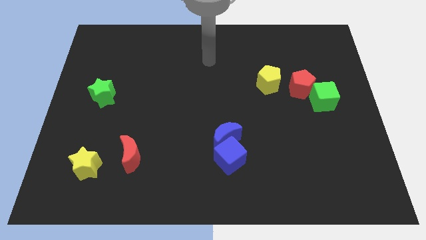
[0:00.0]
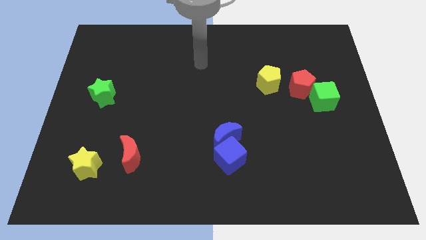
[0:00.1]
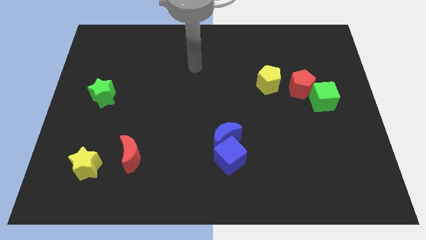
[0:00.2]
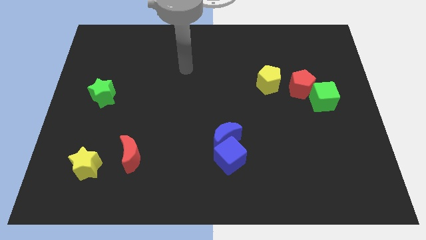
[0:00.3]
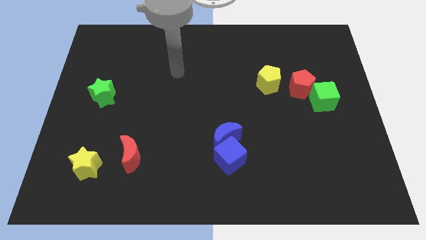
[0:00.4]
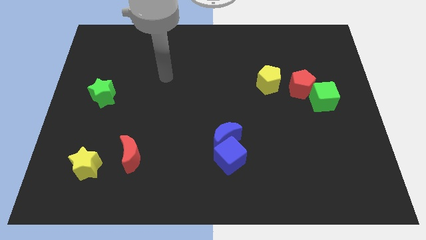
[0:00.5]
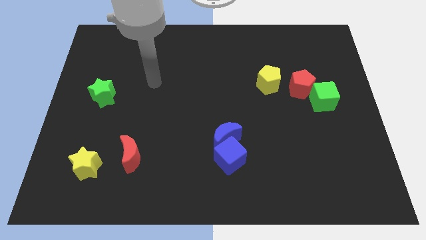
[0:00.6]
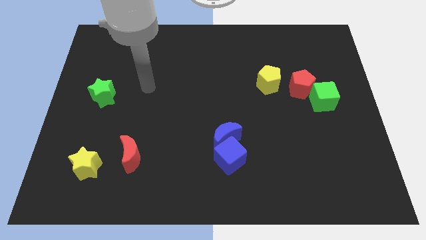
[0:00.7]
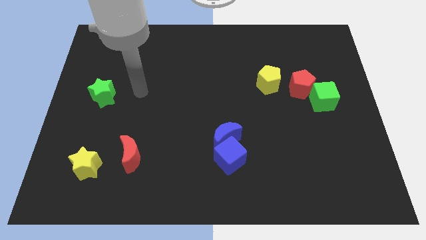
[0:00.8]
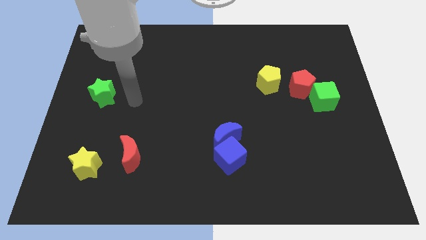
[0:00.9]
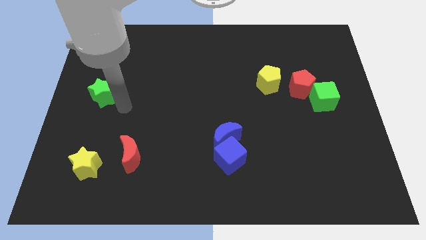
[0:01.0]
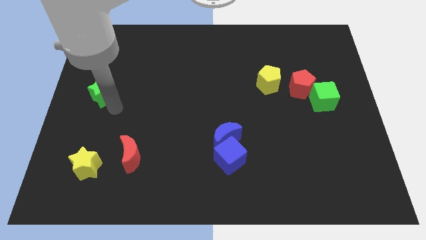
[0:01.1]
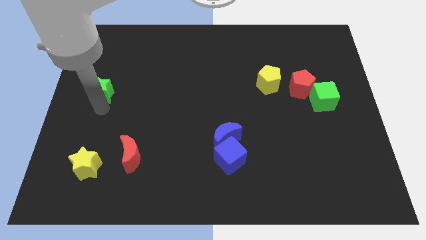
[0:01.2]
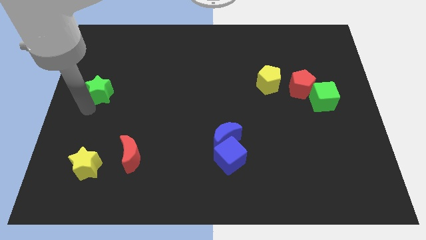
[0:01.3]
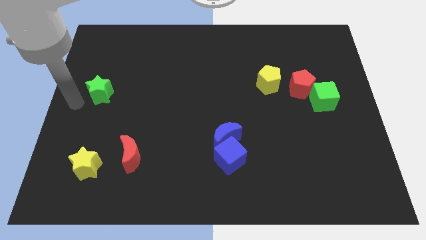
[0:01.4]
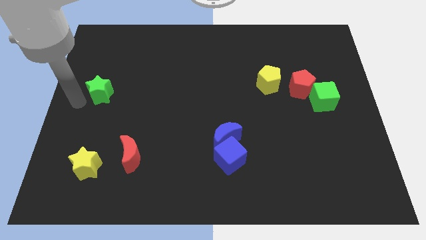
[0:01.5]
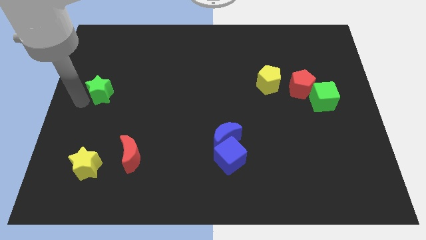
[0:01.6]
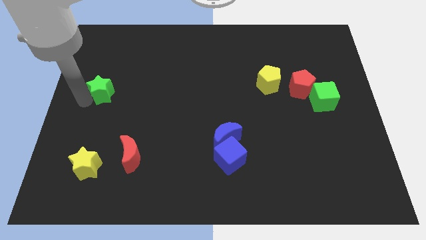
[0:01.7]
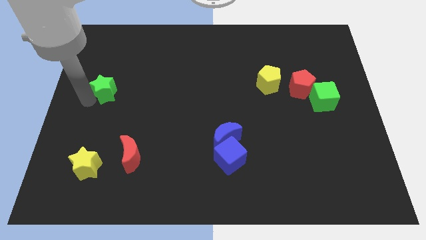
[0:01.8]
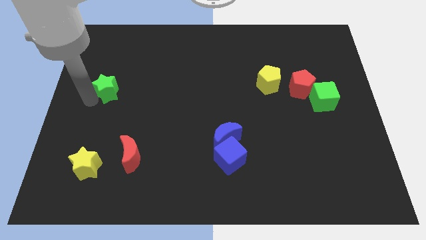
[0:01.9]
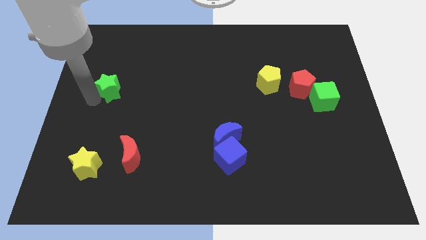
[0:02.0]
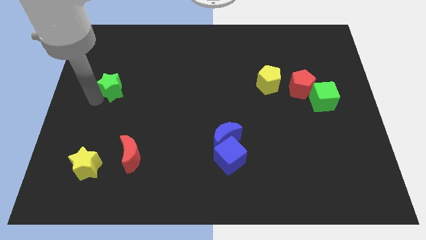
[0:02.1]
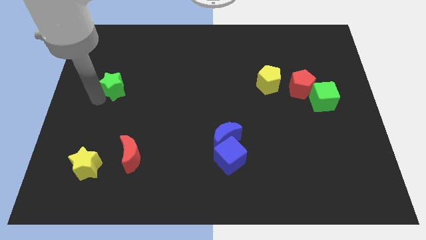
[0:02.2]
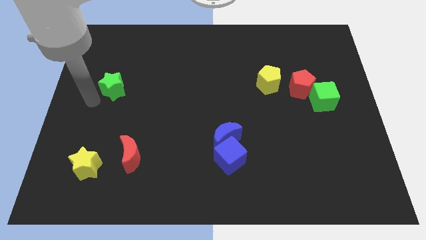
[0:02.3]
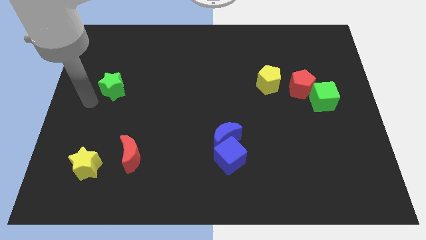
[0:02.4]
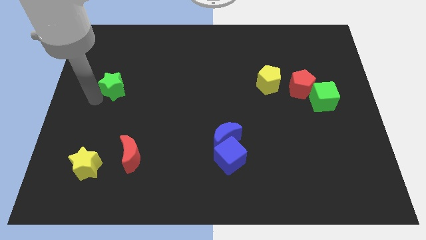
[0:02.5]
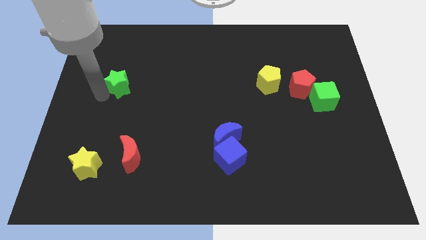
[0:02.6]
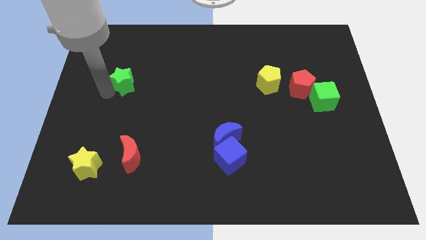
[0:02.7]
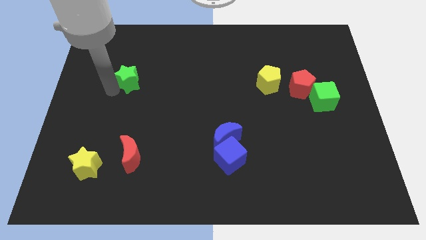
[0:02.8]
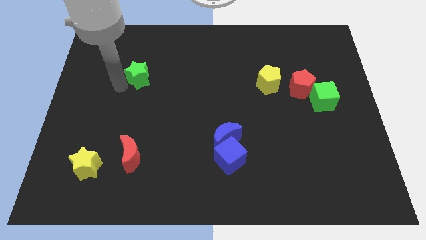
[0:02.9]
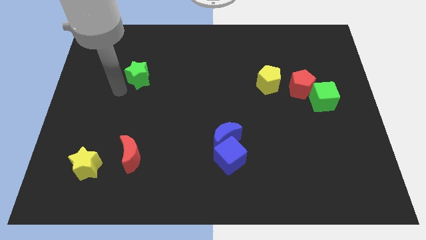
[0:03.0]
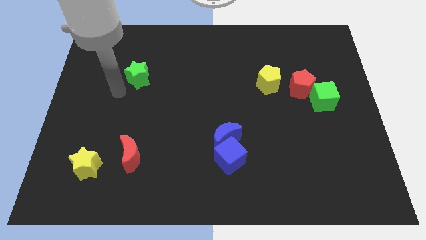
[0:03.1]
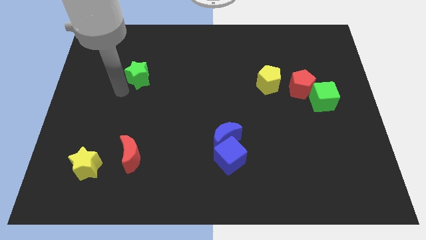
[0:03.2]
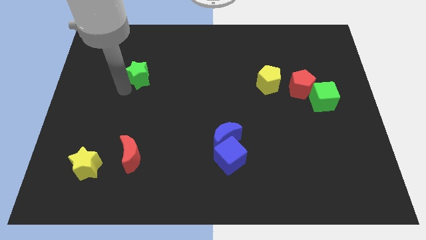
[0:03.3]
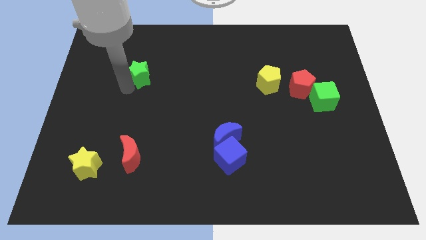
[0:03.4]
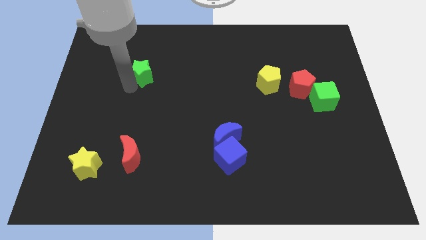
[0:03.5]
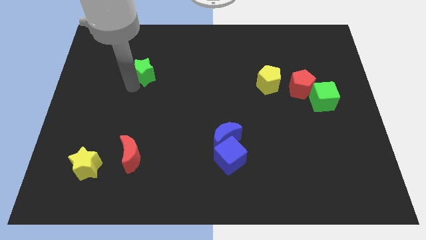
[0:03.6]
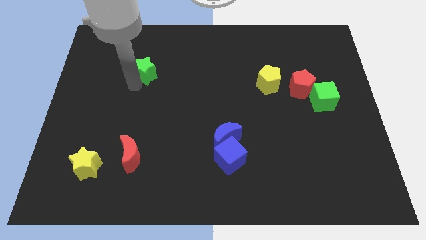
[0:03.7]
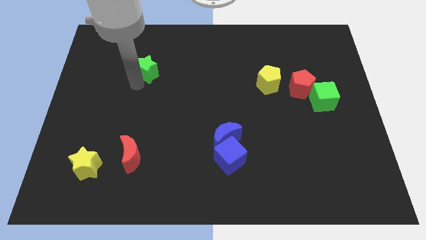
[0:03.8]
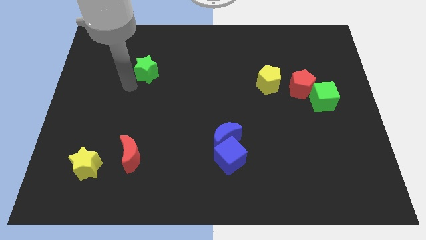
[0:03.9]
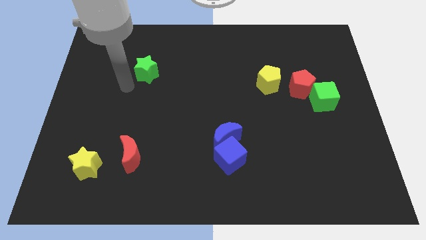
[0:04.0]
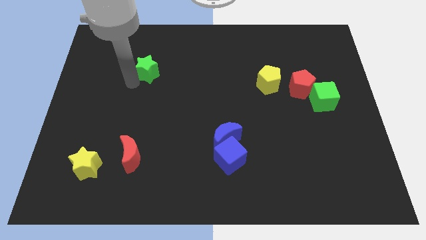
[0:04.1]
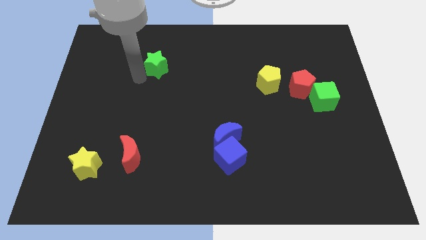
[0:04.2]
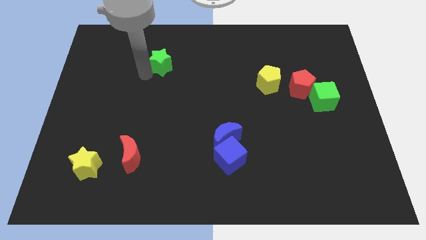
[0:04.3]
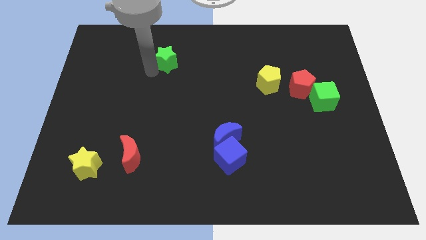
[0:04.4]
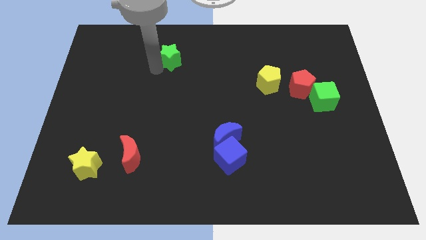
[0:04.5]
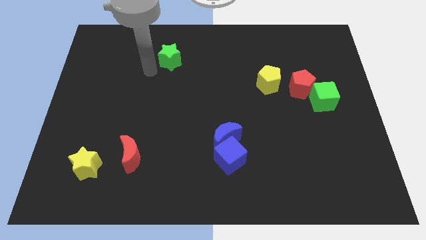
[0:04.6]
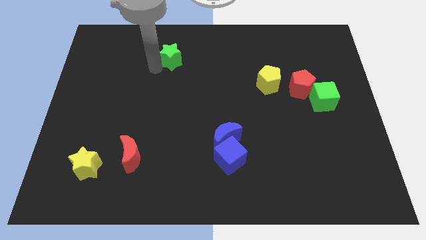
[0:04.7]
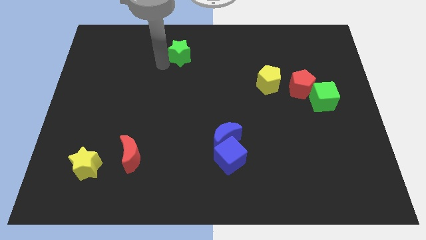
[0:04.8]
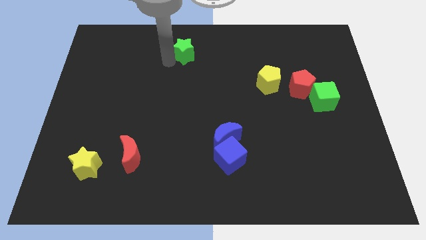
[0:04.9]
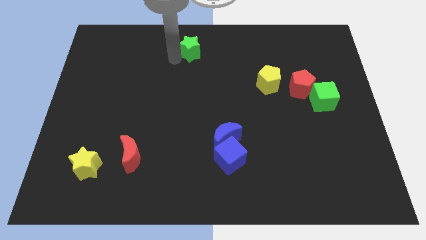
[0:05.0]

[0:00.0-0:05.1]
push the green star to the top side

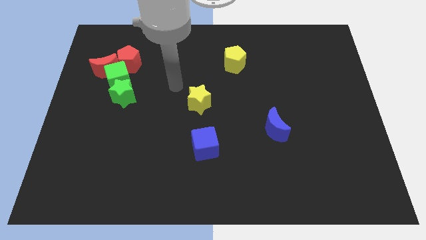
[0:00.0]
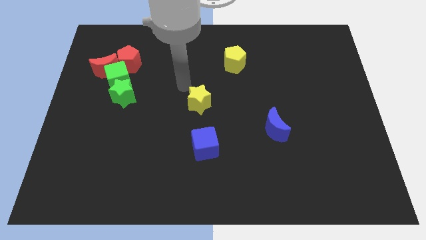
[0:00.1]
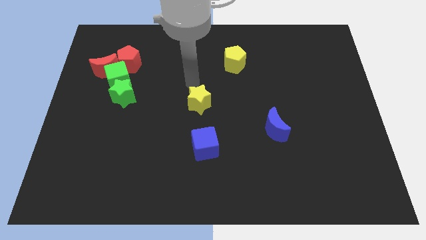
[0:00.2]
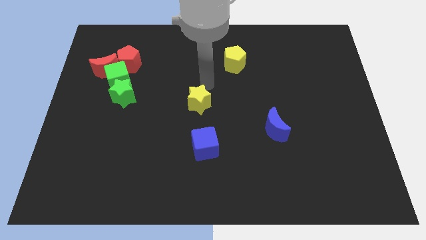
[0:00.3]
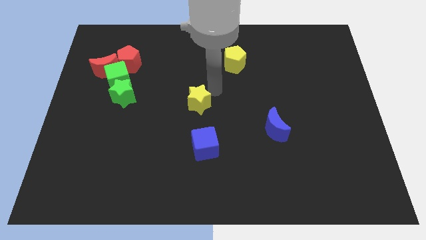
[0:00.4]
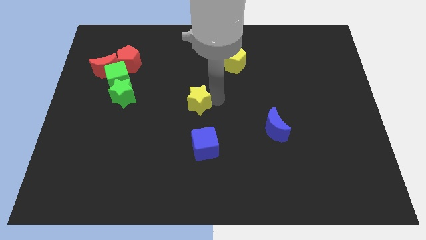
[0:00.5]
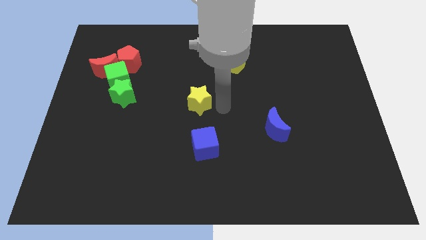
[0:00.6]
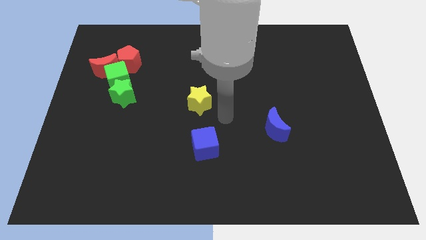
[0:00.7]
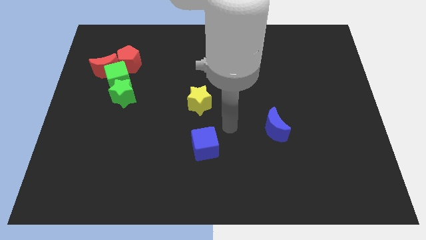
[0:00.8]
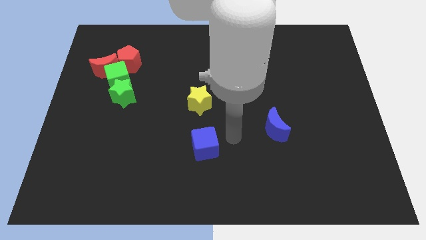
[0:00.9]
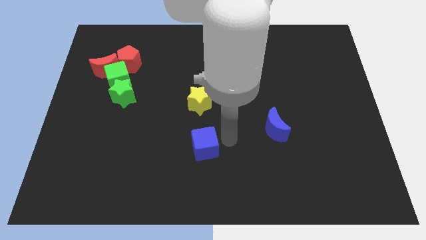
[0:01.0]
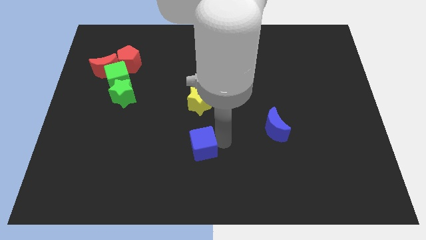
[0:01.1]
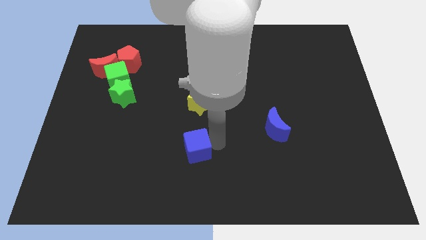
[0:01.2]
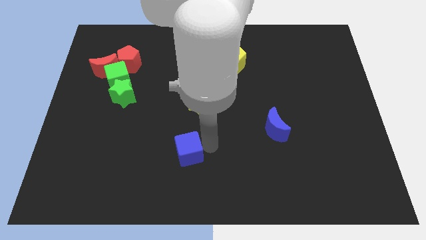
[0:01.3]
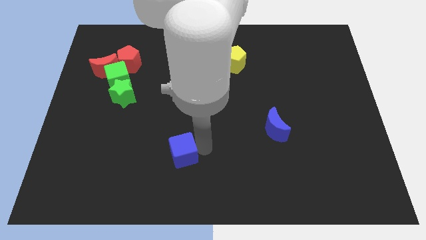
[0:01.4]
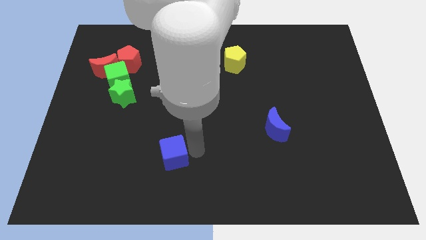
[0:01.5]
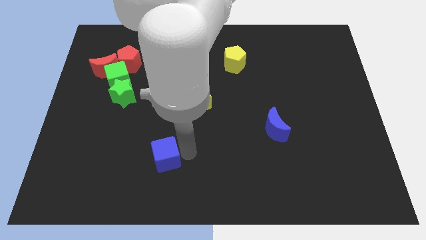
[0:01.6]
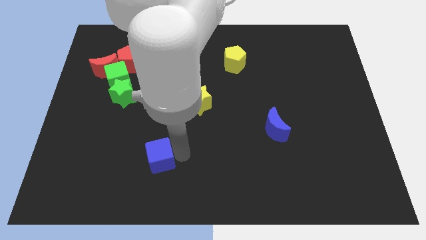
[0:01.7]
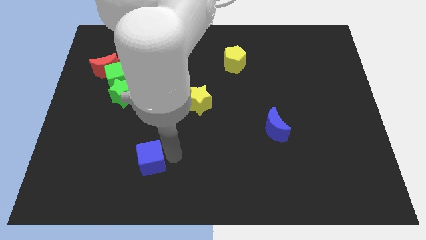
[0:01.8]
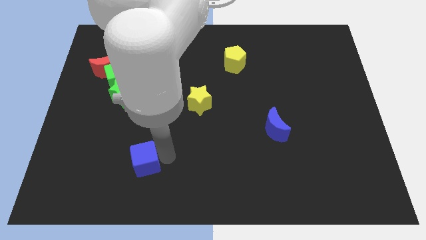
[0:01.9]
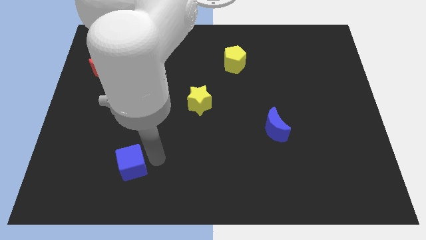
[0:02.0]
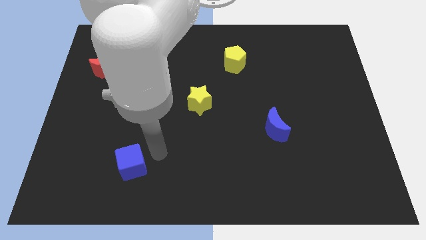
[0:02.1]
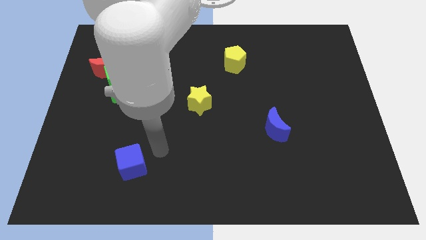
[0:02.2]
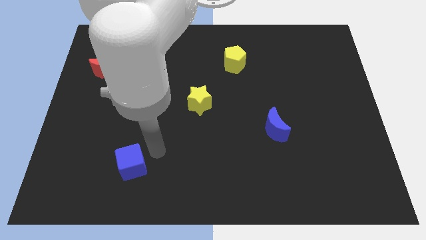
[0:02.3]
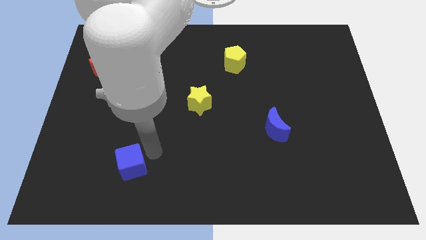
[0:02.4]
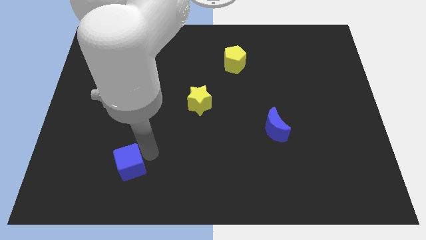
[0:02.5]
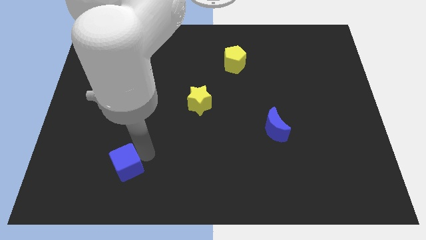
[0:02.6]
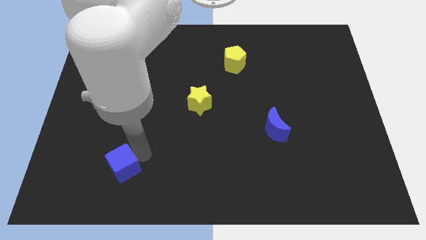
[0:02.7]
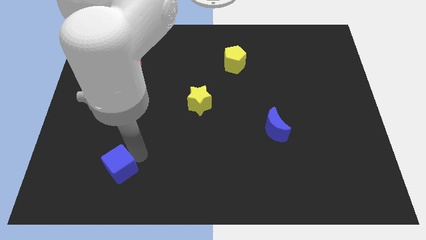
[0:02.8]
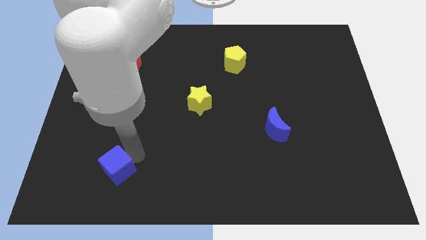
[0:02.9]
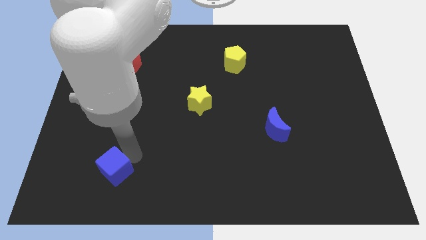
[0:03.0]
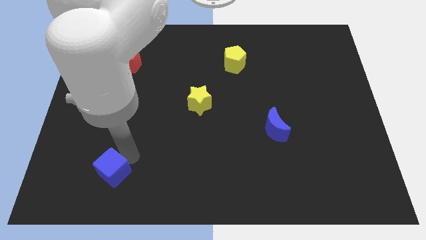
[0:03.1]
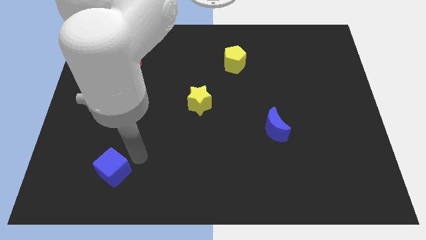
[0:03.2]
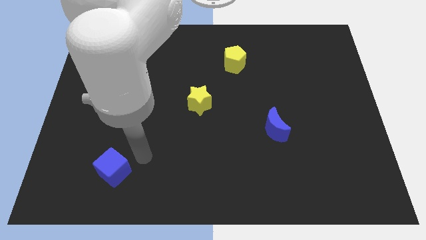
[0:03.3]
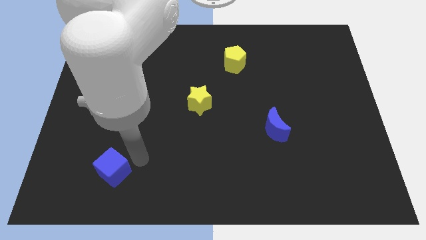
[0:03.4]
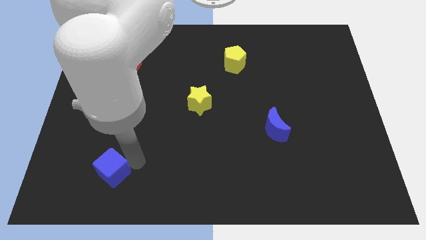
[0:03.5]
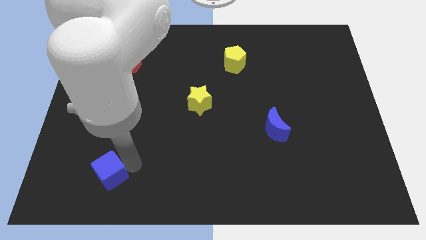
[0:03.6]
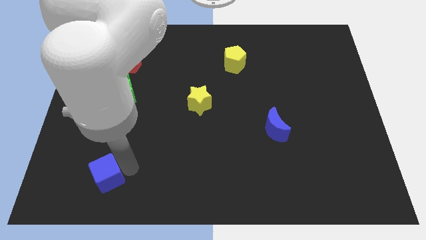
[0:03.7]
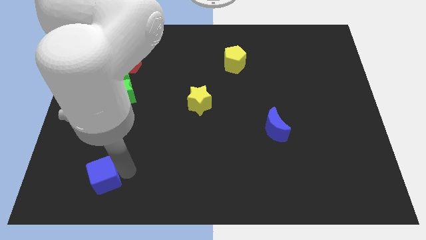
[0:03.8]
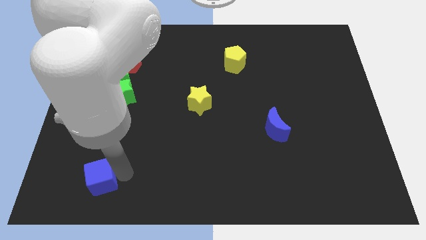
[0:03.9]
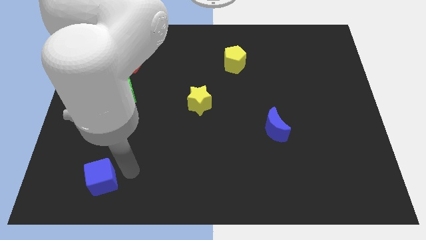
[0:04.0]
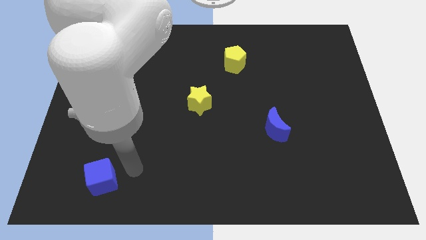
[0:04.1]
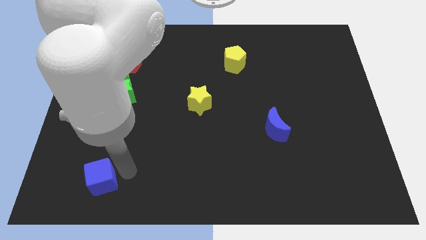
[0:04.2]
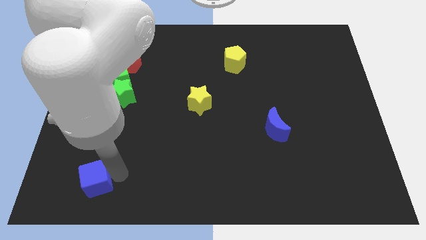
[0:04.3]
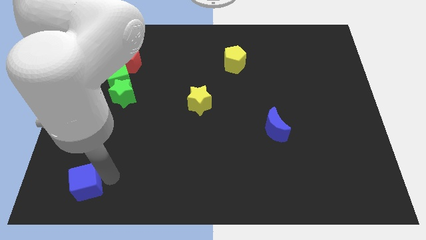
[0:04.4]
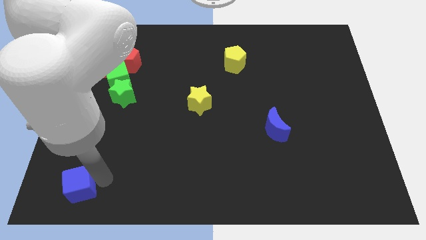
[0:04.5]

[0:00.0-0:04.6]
move the blue cube to the bottom left
